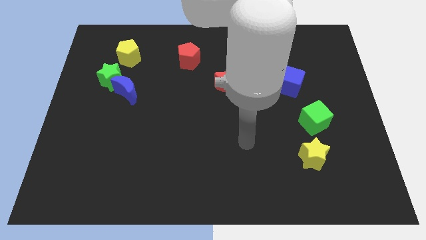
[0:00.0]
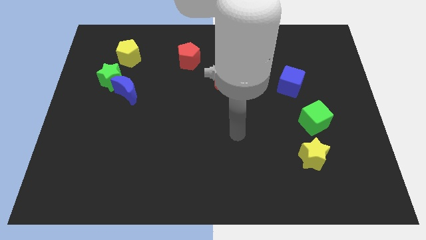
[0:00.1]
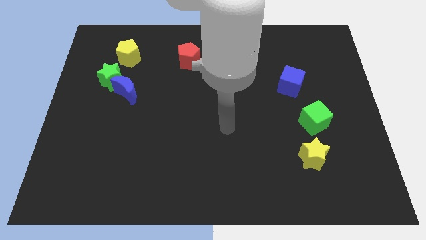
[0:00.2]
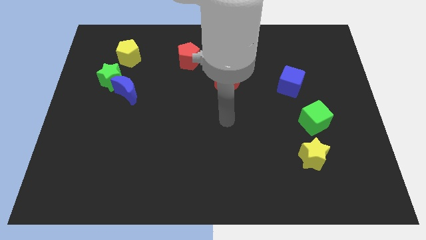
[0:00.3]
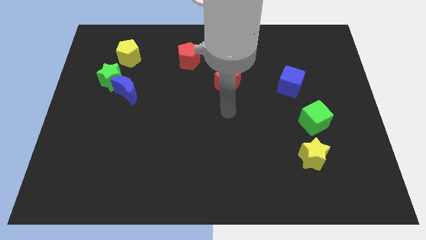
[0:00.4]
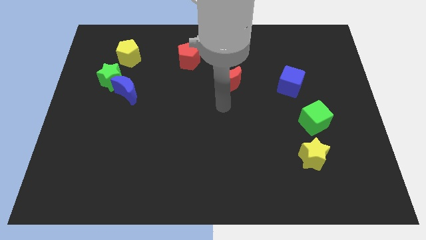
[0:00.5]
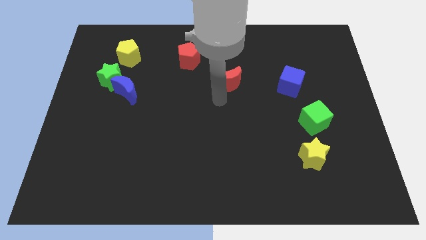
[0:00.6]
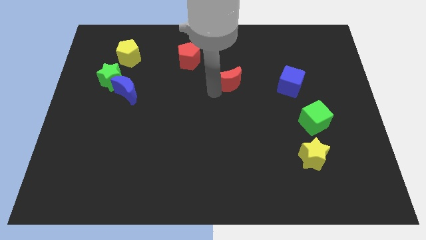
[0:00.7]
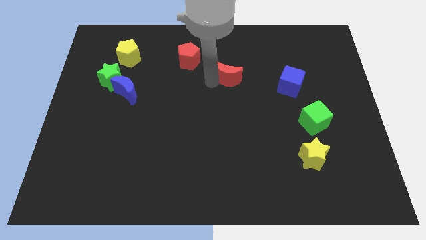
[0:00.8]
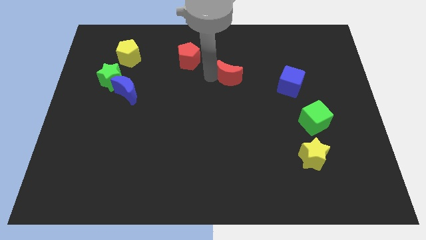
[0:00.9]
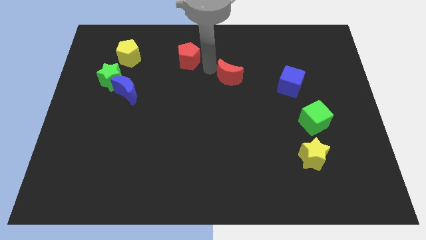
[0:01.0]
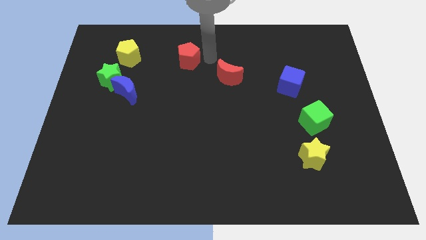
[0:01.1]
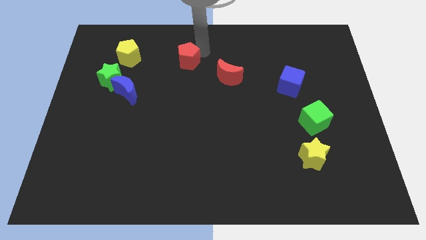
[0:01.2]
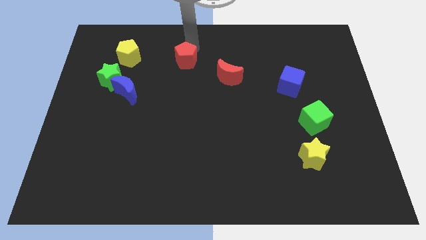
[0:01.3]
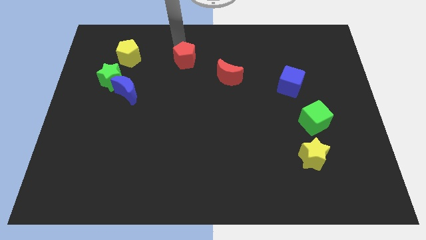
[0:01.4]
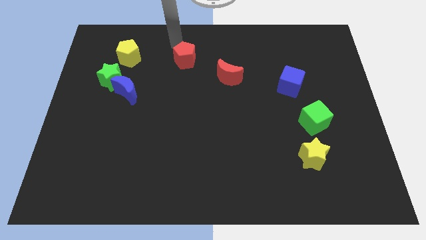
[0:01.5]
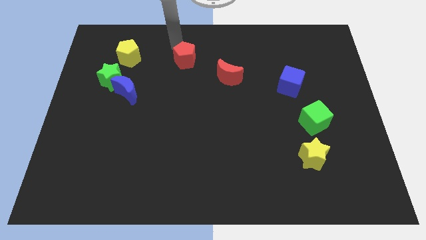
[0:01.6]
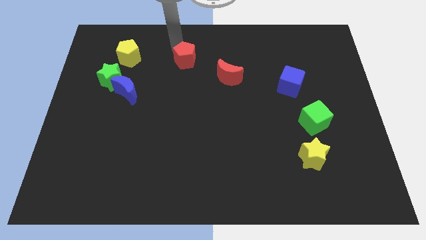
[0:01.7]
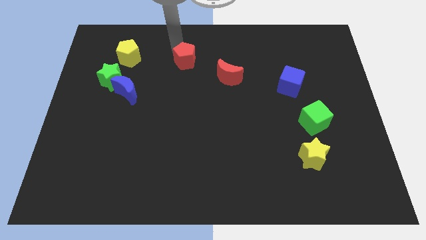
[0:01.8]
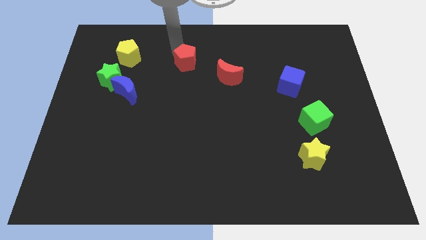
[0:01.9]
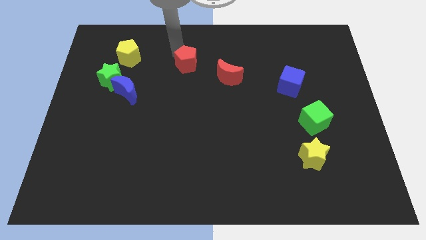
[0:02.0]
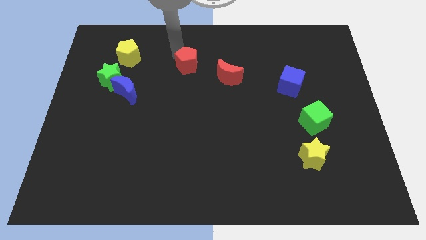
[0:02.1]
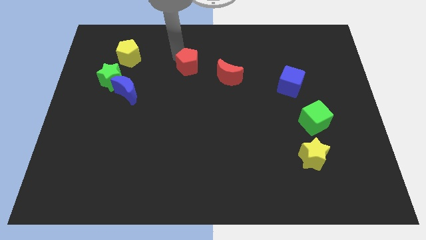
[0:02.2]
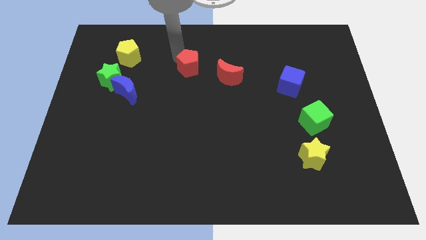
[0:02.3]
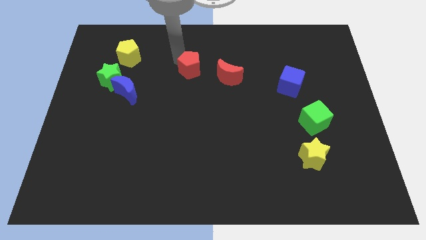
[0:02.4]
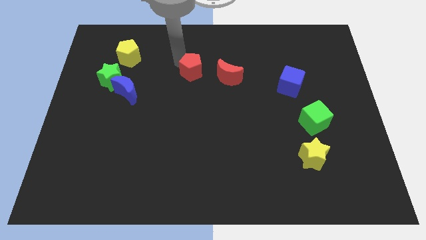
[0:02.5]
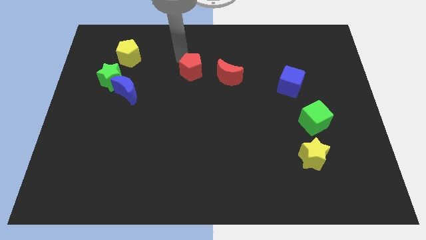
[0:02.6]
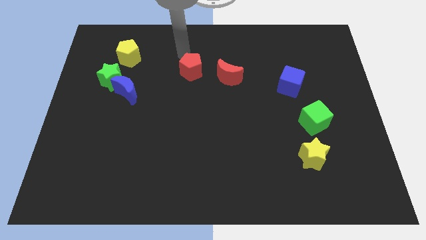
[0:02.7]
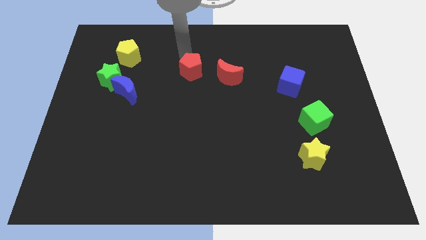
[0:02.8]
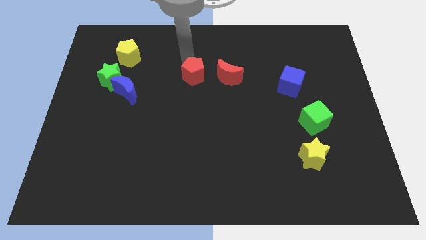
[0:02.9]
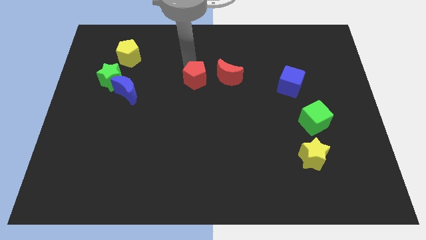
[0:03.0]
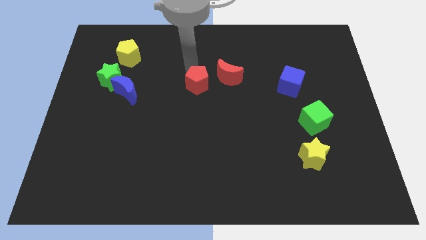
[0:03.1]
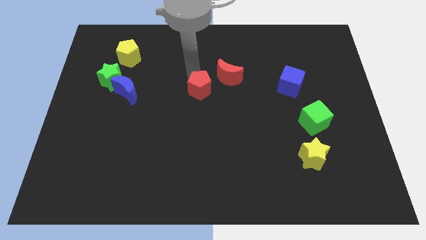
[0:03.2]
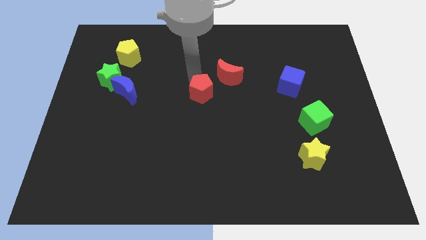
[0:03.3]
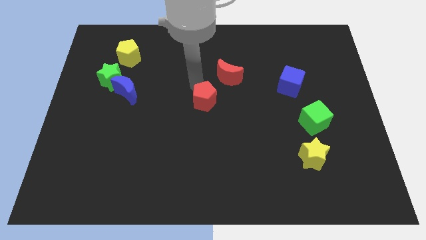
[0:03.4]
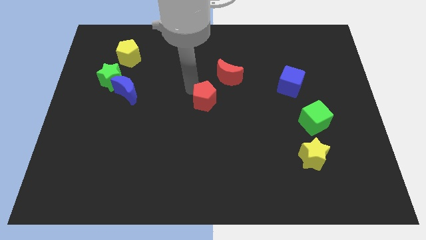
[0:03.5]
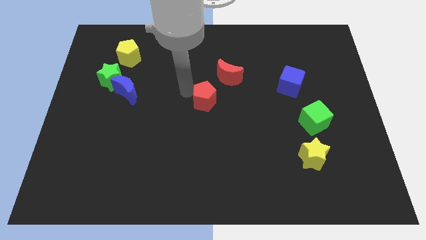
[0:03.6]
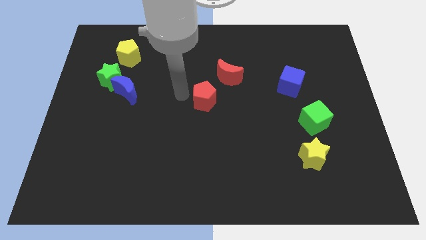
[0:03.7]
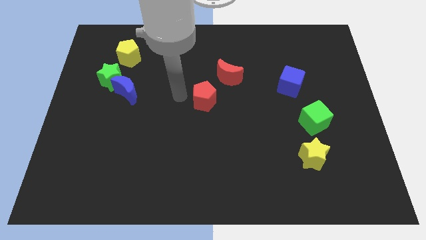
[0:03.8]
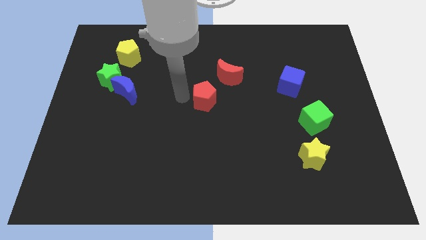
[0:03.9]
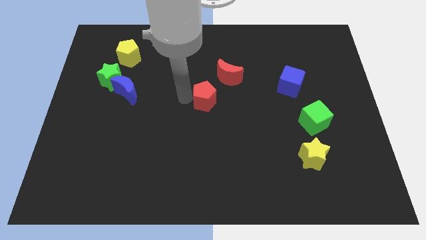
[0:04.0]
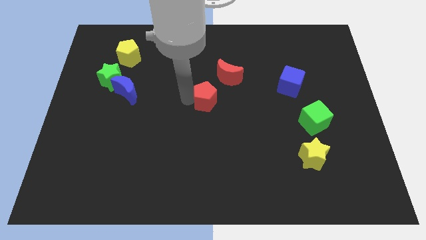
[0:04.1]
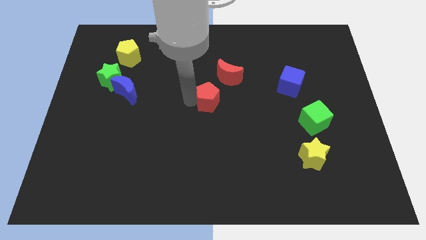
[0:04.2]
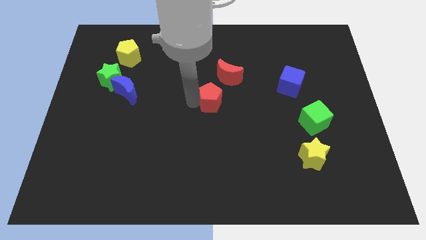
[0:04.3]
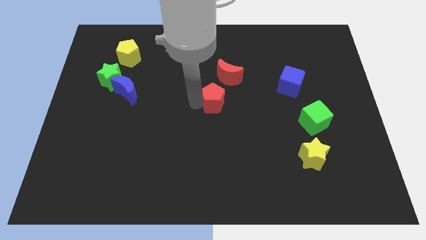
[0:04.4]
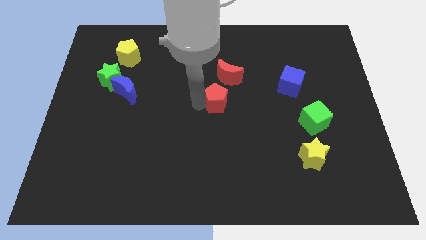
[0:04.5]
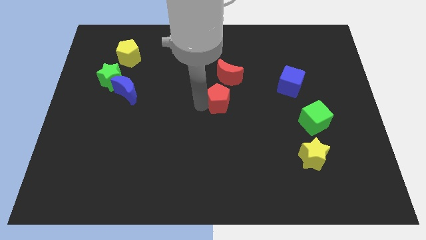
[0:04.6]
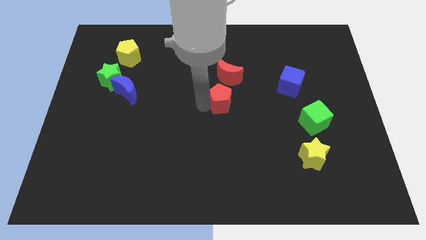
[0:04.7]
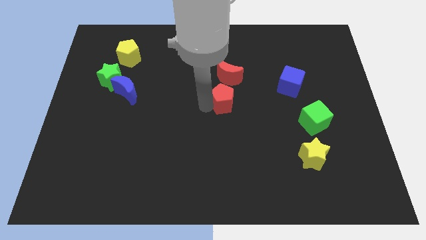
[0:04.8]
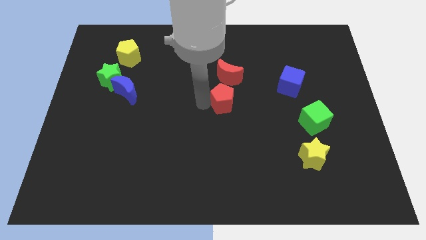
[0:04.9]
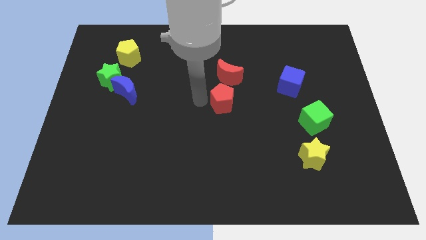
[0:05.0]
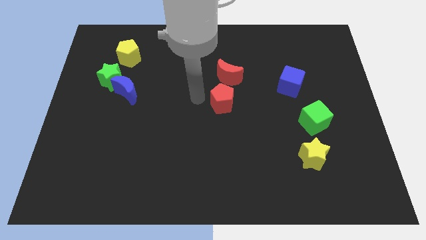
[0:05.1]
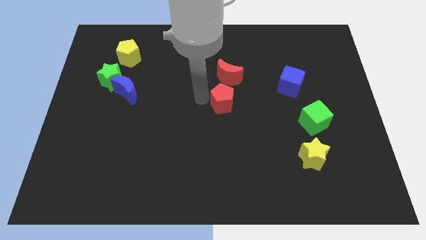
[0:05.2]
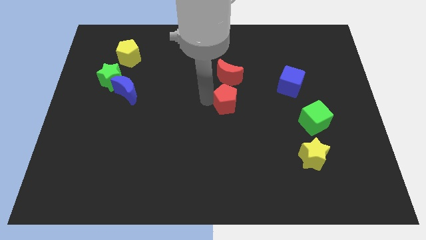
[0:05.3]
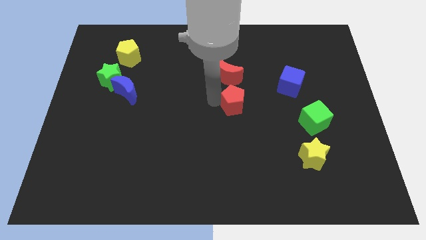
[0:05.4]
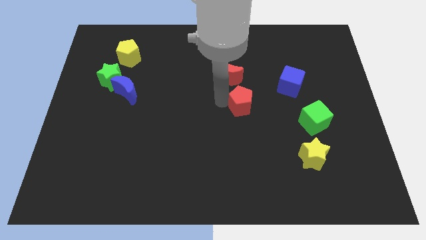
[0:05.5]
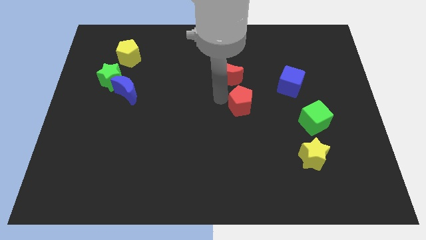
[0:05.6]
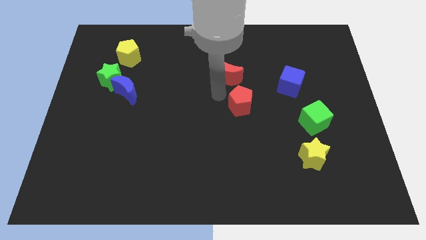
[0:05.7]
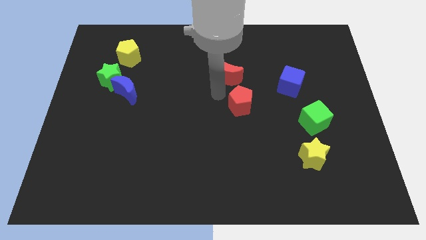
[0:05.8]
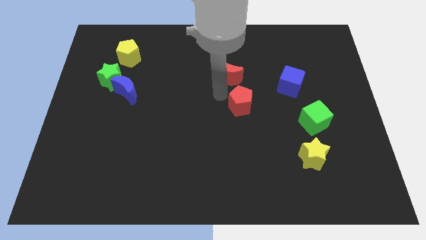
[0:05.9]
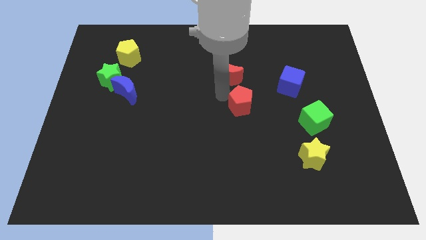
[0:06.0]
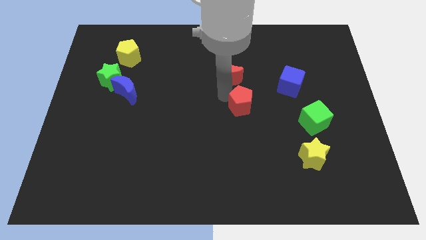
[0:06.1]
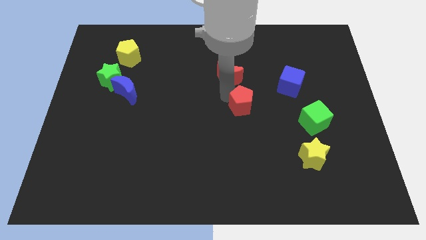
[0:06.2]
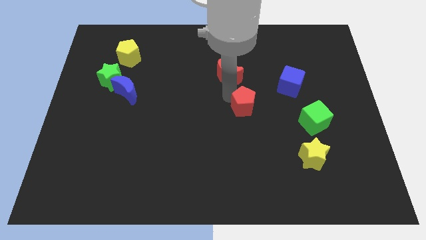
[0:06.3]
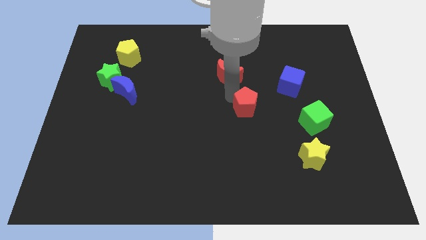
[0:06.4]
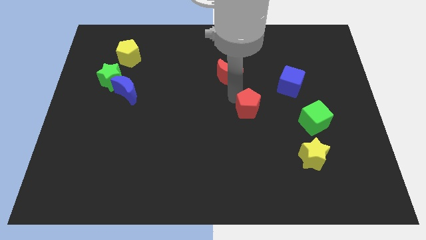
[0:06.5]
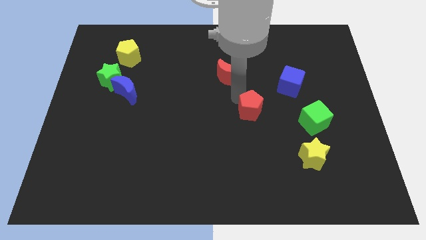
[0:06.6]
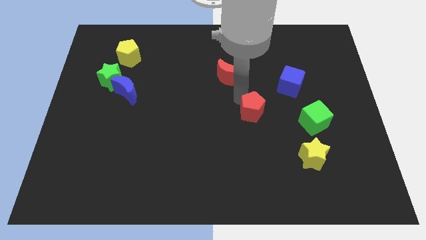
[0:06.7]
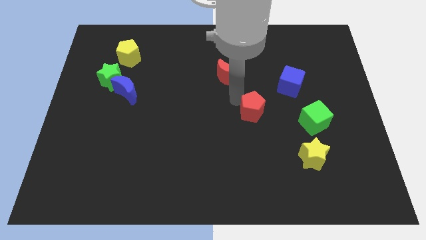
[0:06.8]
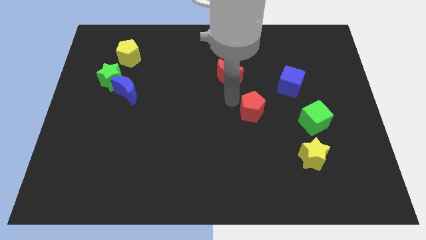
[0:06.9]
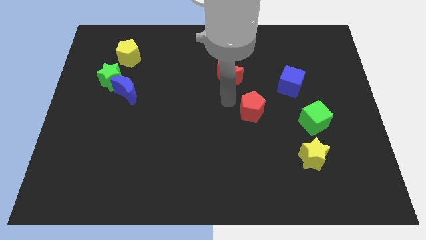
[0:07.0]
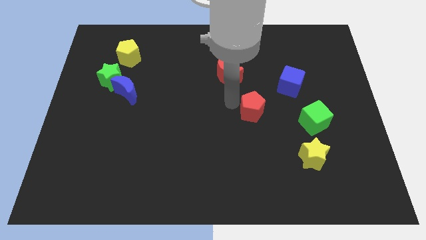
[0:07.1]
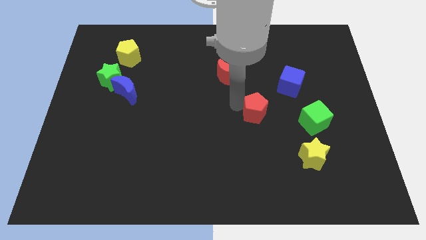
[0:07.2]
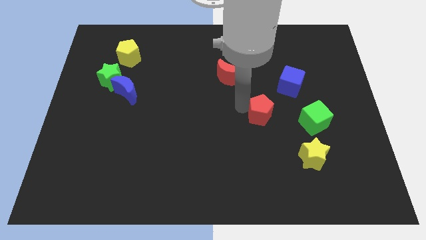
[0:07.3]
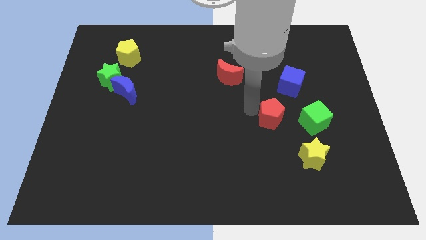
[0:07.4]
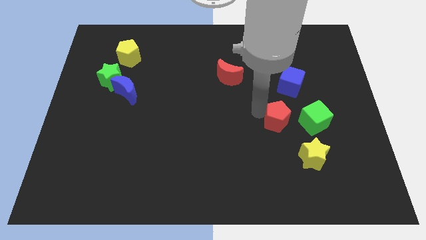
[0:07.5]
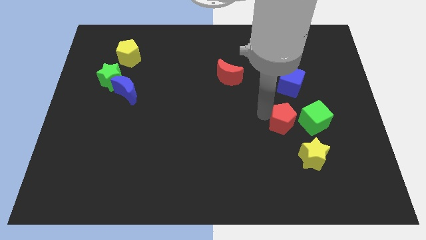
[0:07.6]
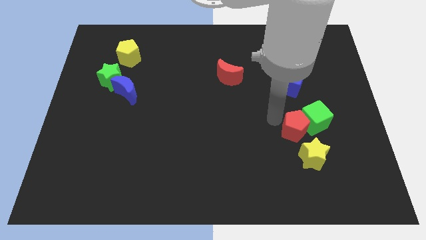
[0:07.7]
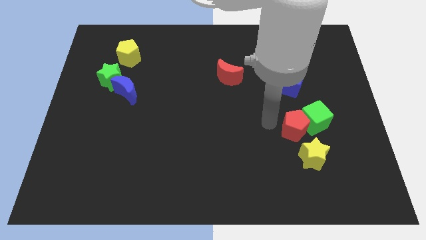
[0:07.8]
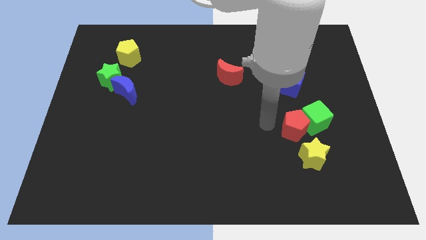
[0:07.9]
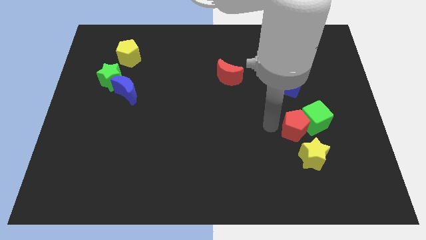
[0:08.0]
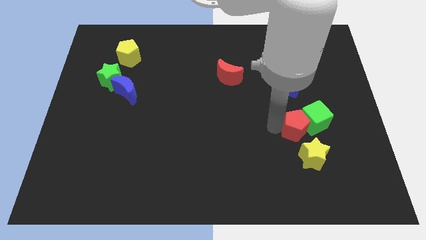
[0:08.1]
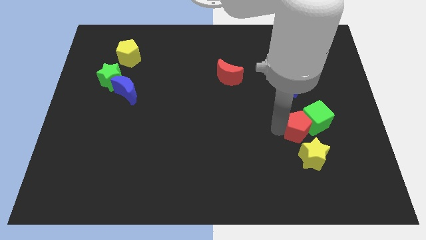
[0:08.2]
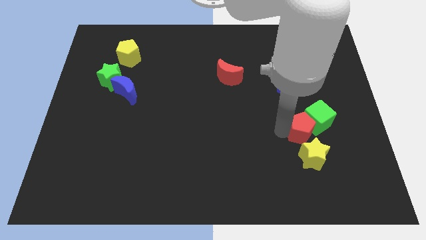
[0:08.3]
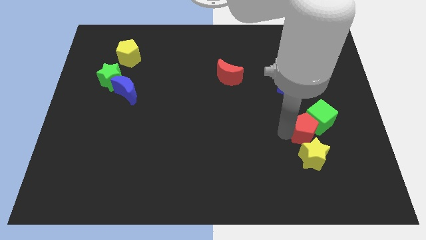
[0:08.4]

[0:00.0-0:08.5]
push the red pentagon to the top right side of the yellow star
